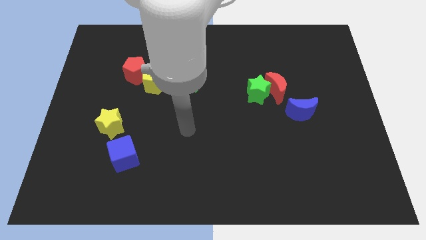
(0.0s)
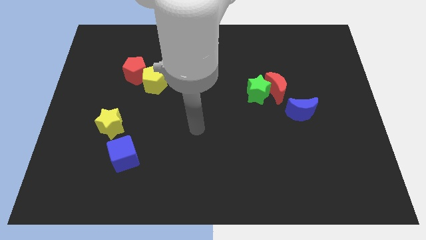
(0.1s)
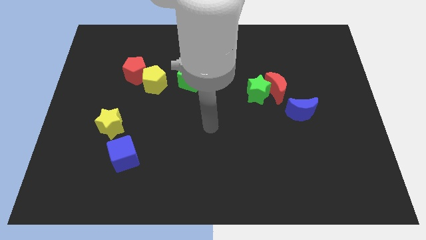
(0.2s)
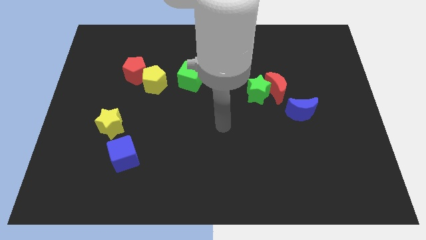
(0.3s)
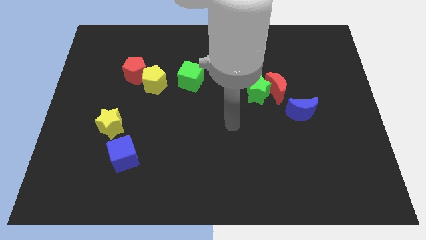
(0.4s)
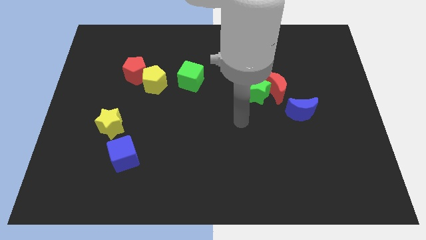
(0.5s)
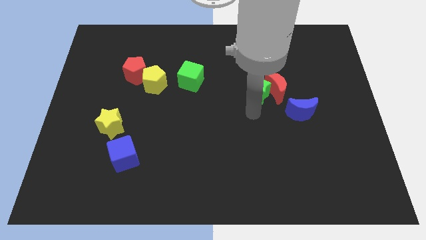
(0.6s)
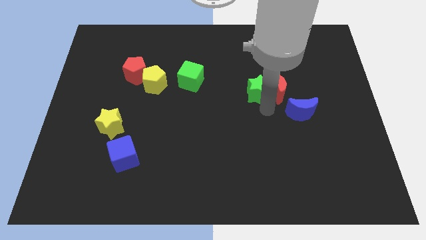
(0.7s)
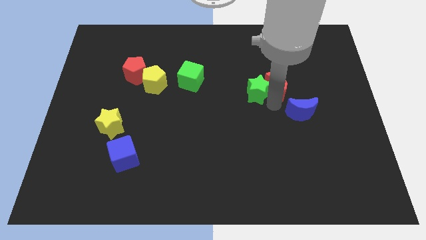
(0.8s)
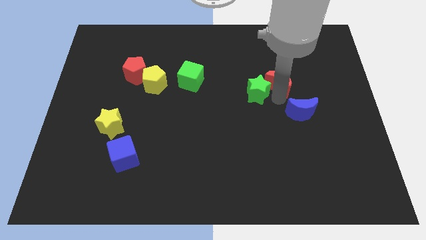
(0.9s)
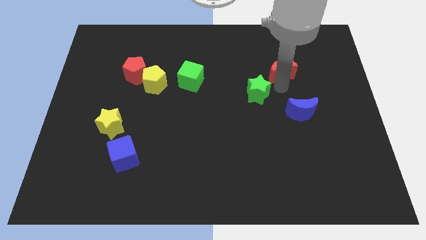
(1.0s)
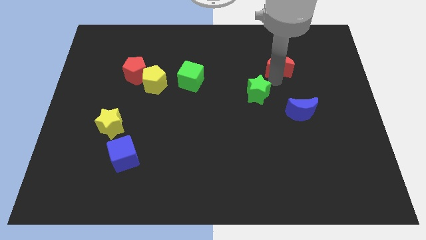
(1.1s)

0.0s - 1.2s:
separate the green star from the red moon

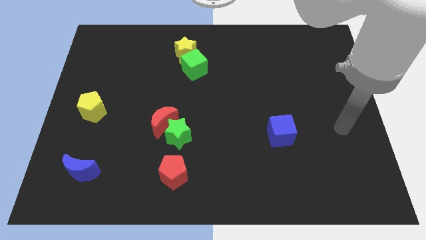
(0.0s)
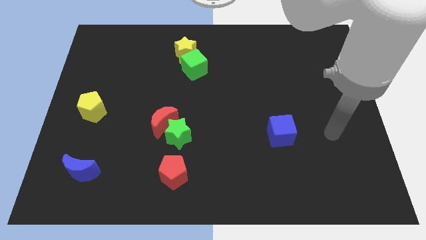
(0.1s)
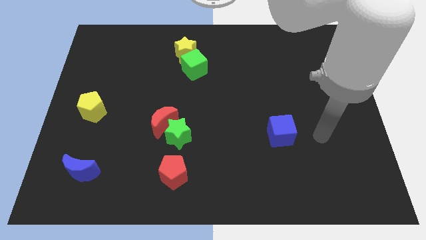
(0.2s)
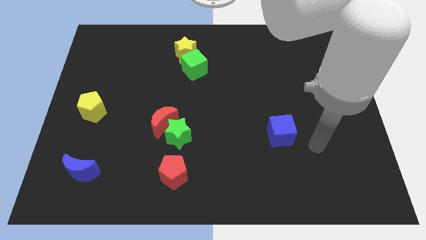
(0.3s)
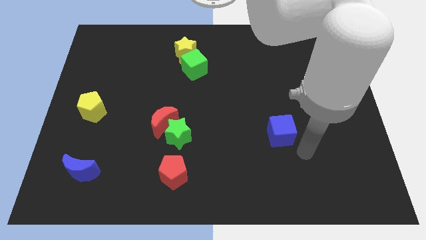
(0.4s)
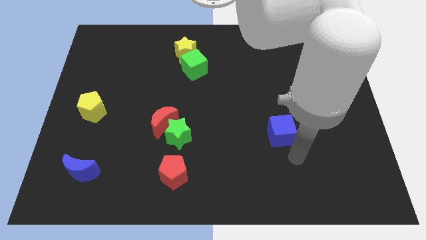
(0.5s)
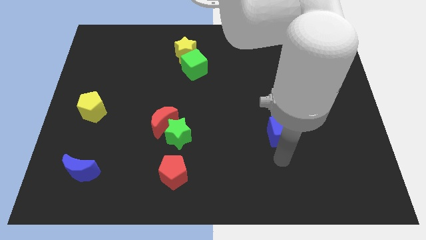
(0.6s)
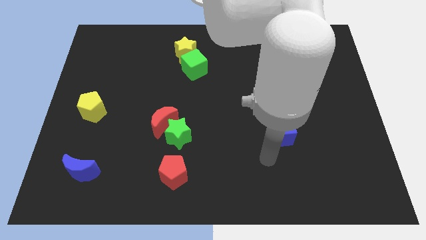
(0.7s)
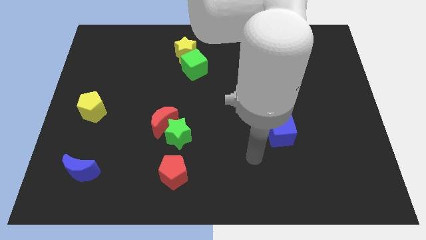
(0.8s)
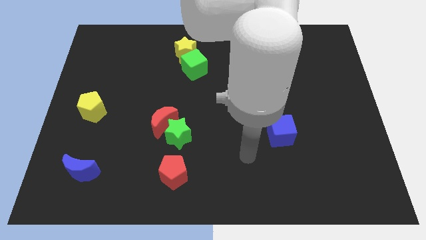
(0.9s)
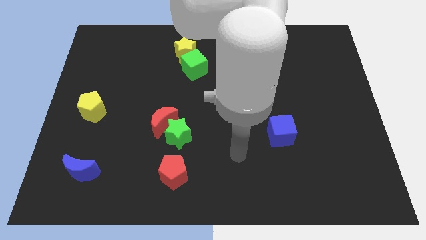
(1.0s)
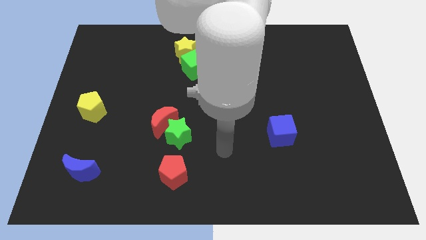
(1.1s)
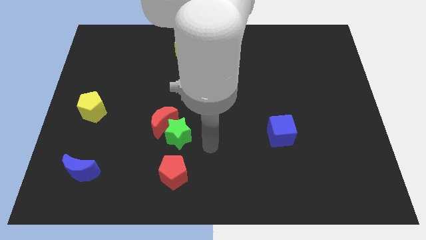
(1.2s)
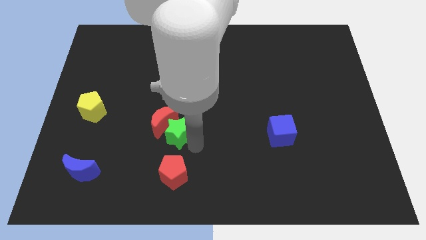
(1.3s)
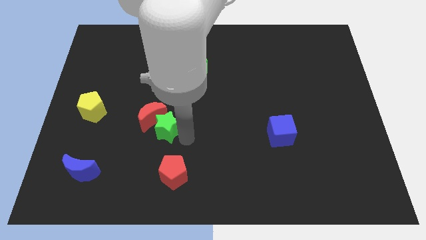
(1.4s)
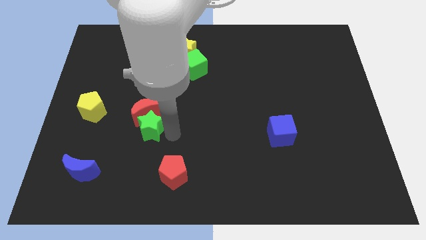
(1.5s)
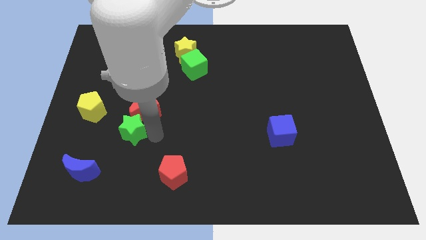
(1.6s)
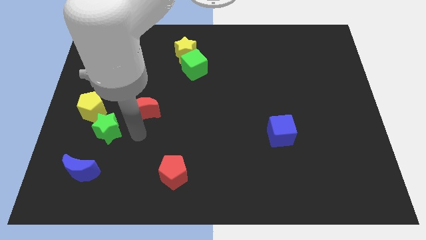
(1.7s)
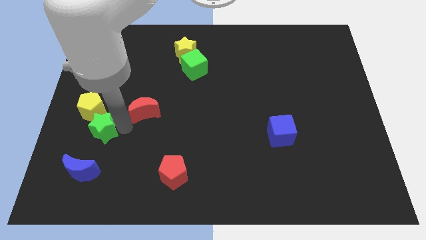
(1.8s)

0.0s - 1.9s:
separate the red moon from the green star

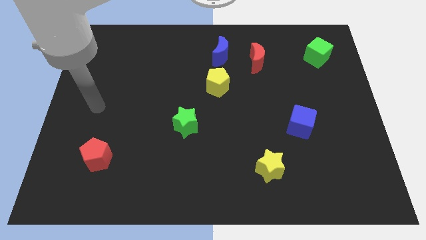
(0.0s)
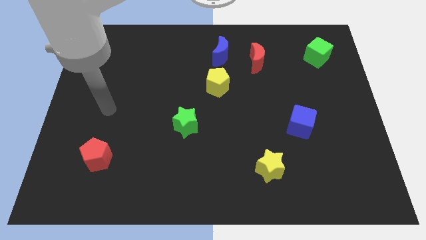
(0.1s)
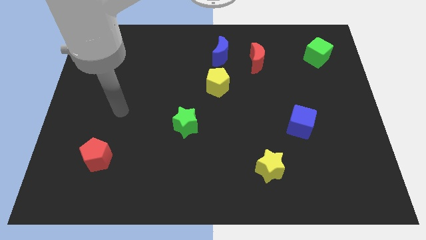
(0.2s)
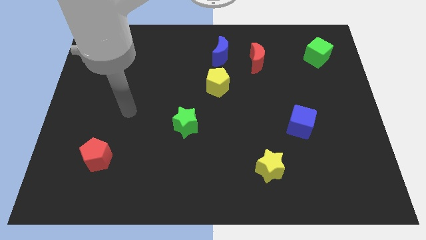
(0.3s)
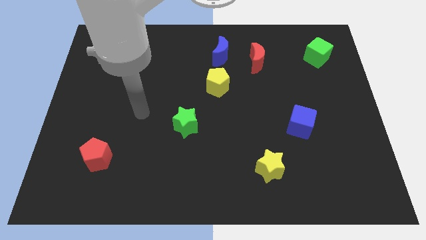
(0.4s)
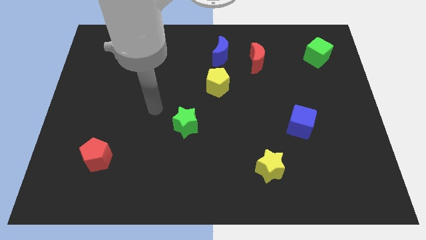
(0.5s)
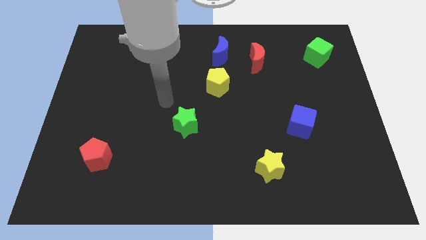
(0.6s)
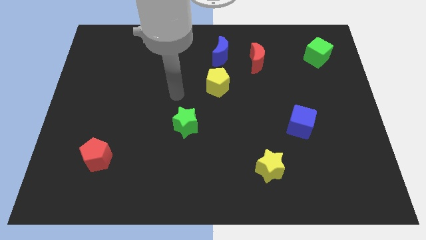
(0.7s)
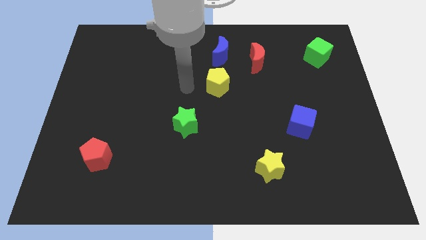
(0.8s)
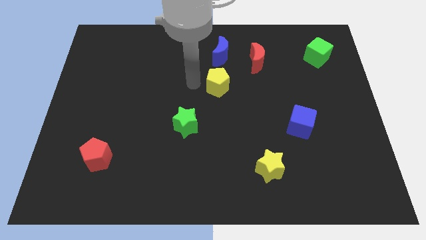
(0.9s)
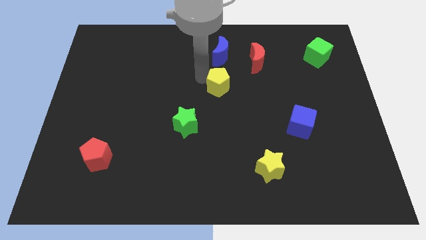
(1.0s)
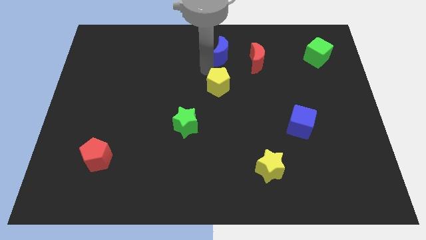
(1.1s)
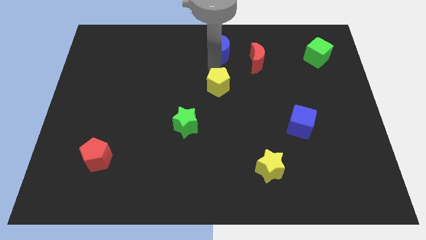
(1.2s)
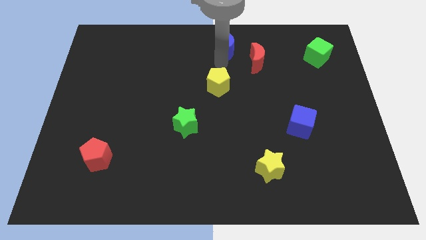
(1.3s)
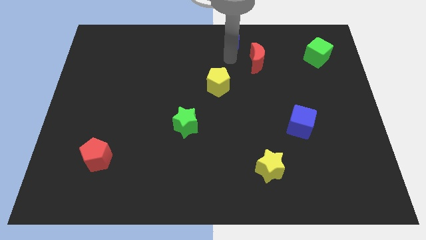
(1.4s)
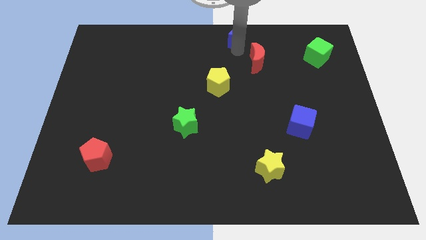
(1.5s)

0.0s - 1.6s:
move the red moon away from the blue moon

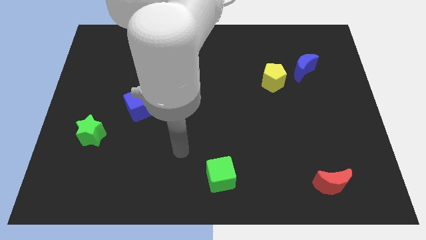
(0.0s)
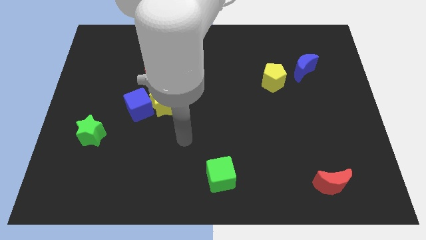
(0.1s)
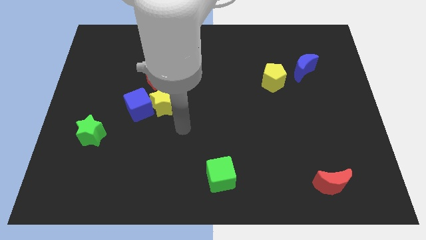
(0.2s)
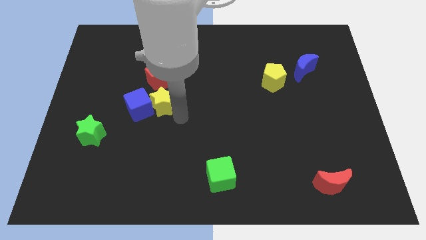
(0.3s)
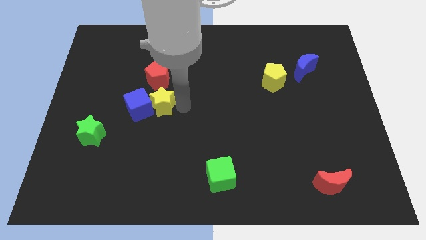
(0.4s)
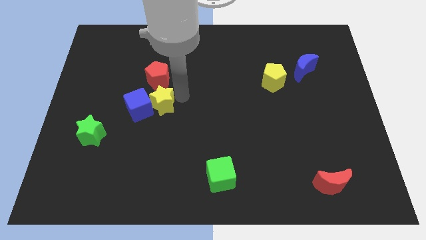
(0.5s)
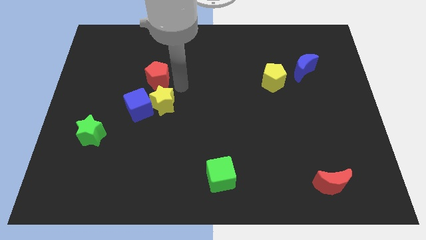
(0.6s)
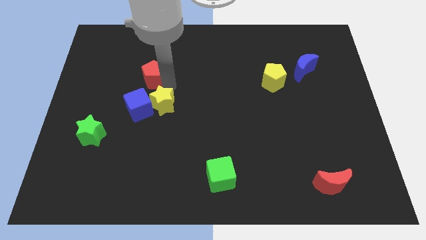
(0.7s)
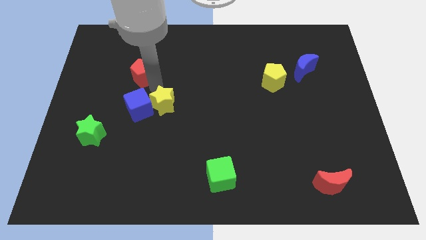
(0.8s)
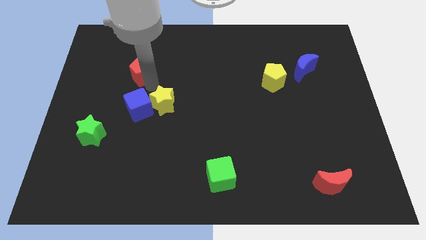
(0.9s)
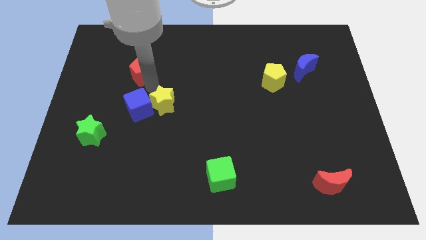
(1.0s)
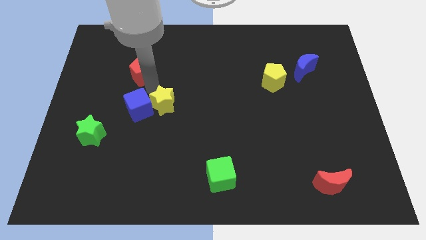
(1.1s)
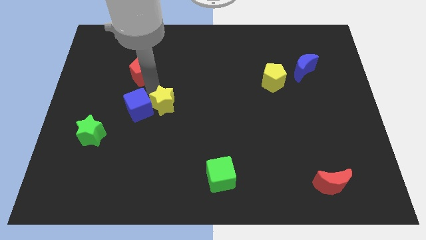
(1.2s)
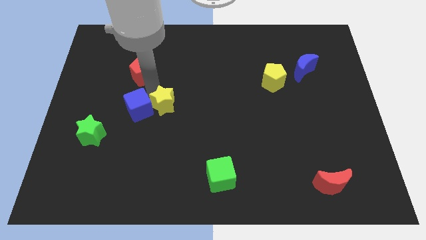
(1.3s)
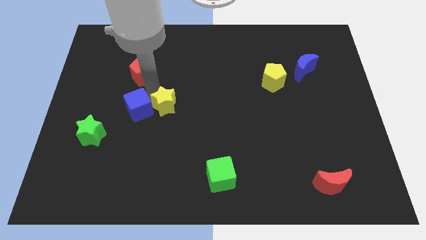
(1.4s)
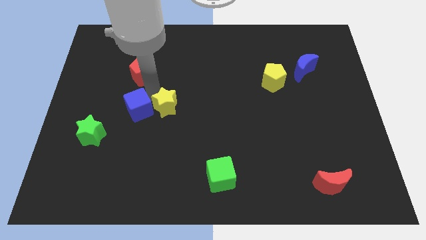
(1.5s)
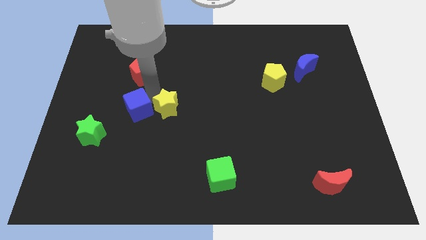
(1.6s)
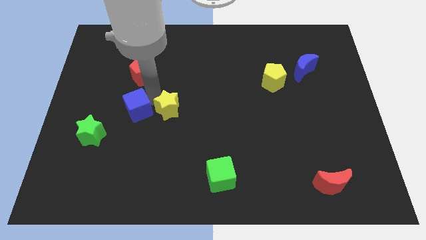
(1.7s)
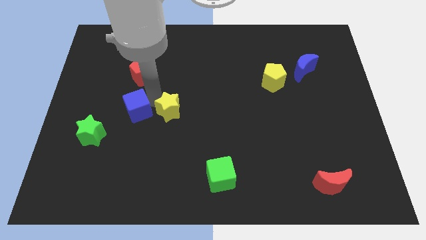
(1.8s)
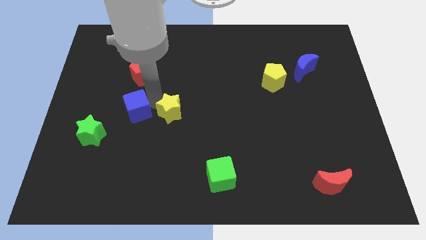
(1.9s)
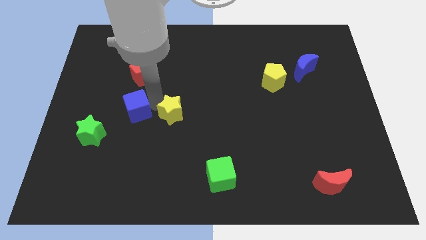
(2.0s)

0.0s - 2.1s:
pull the yellow star apart from the blue cube and red pentagon

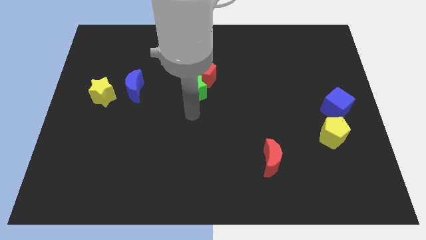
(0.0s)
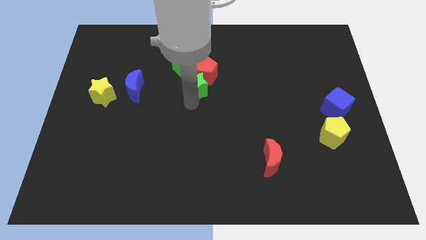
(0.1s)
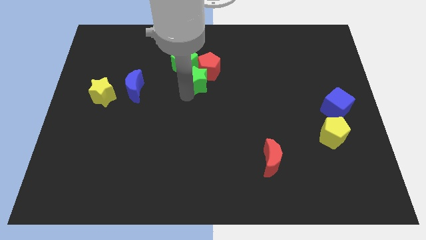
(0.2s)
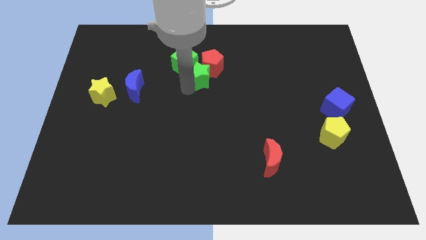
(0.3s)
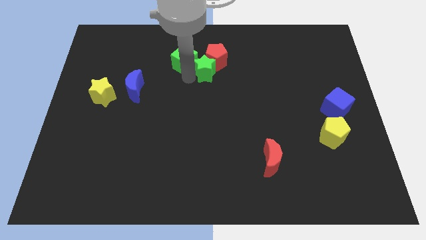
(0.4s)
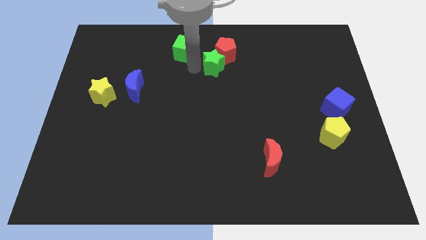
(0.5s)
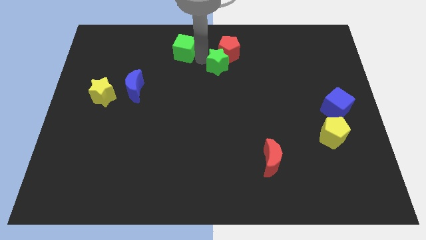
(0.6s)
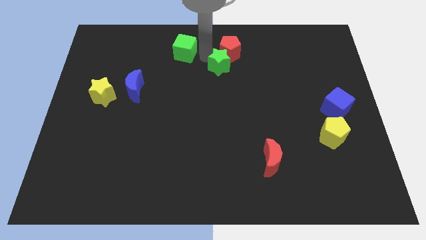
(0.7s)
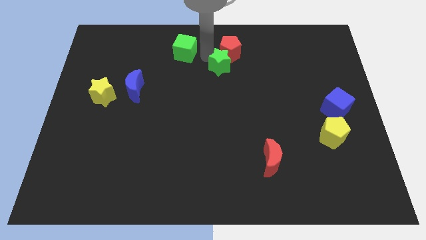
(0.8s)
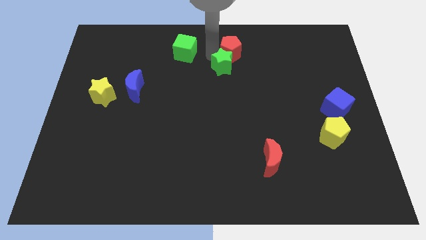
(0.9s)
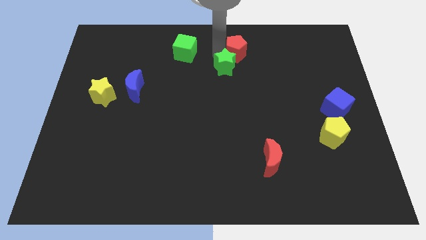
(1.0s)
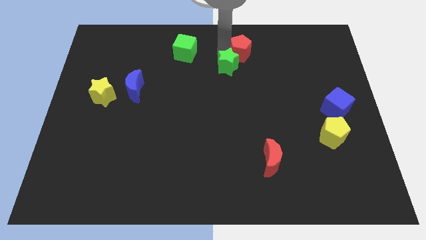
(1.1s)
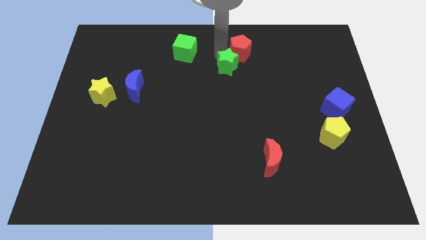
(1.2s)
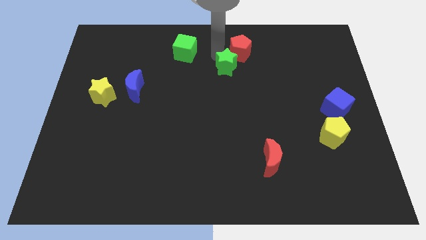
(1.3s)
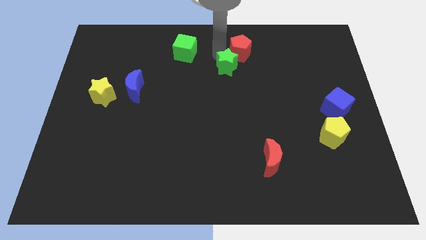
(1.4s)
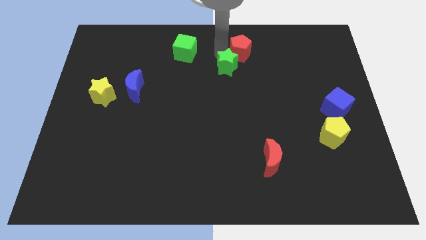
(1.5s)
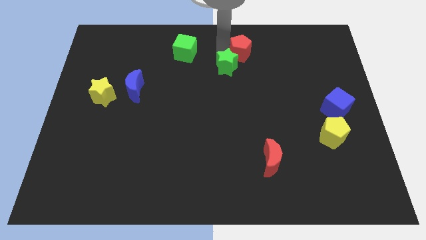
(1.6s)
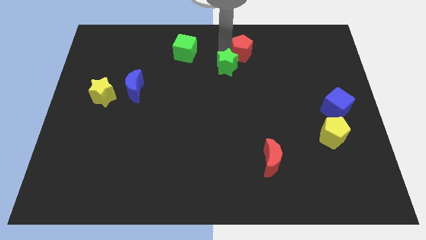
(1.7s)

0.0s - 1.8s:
move the red pentagon away from the green star and green cube

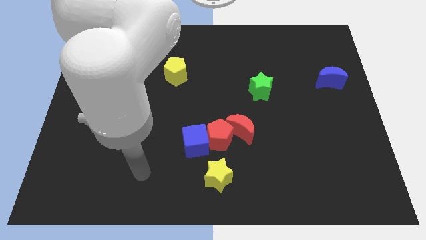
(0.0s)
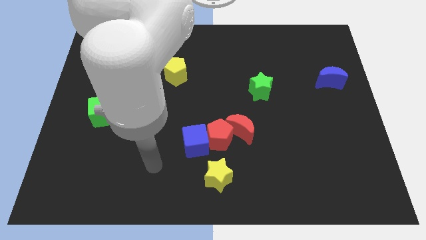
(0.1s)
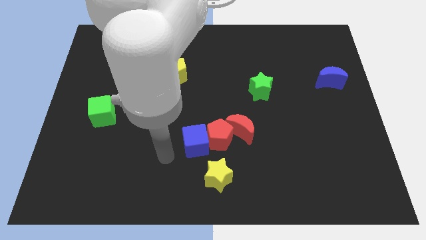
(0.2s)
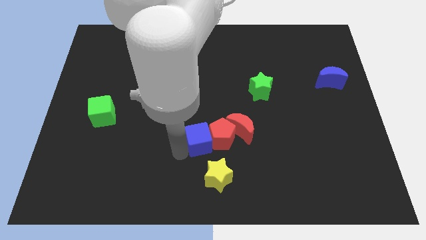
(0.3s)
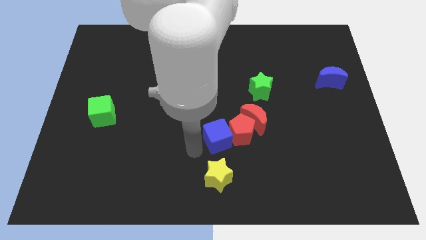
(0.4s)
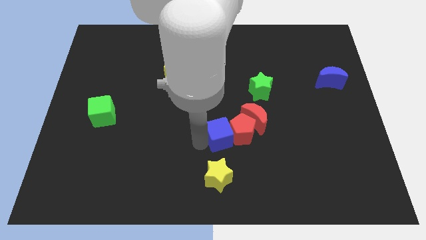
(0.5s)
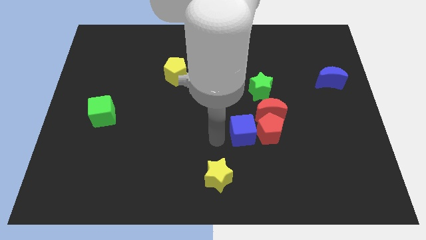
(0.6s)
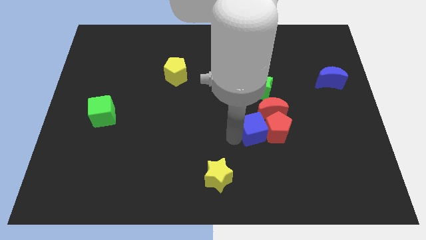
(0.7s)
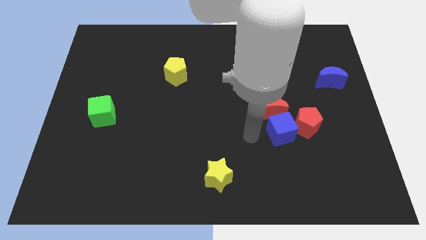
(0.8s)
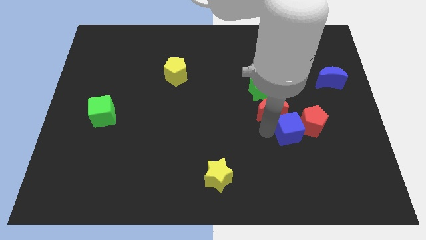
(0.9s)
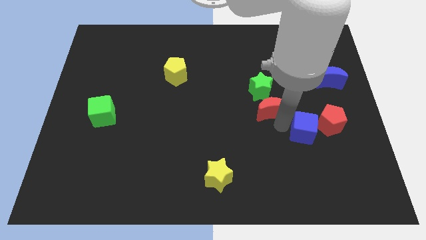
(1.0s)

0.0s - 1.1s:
move the red moon away from the red pentagon
